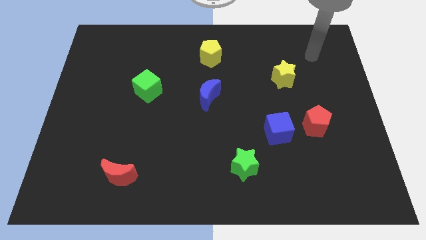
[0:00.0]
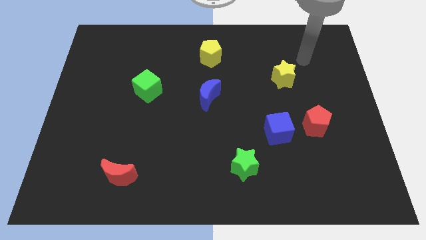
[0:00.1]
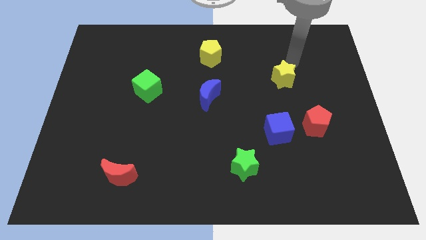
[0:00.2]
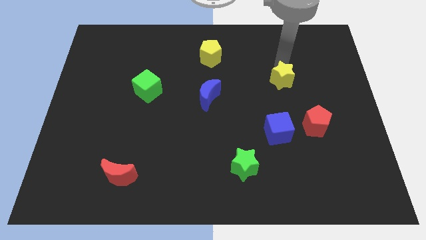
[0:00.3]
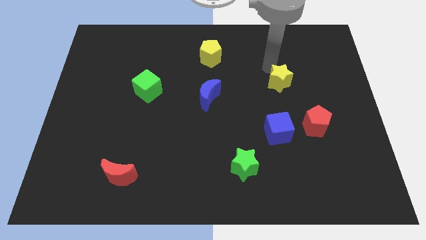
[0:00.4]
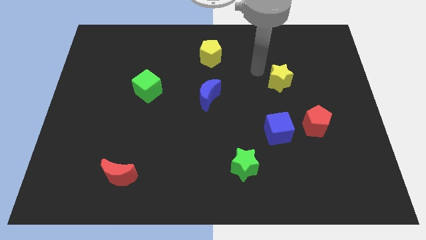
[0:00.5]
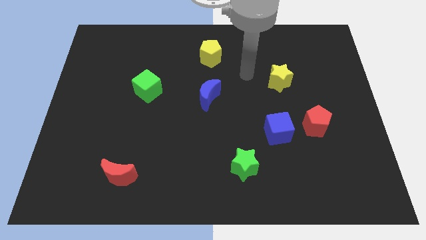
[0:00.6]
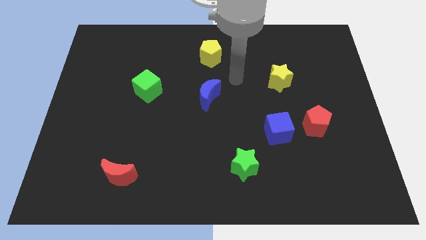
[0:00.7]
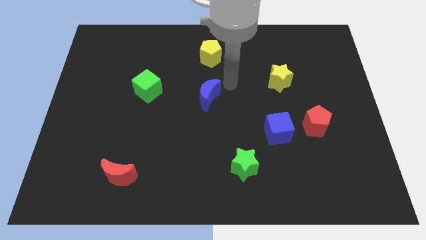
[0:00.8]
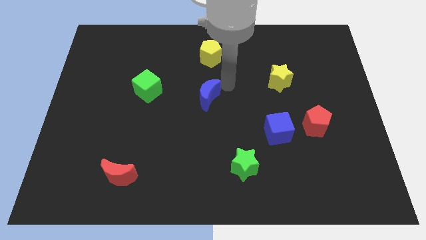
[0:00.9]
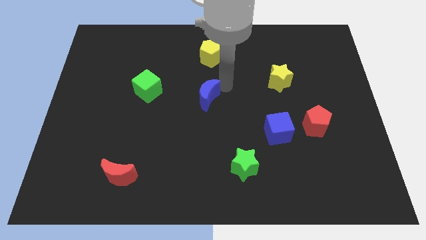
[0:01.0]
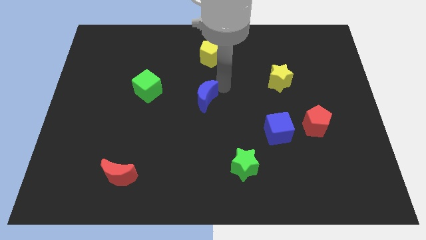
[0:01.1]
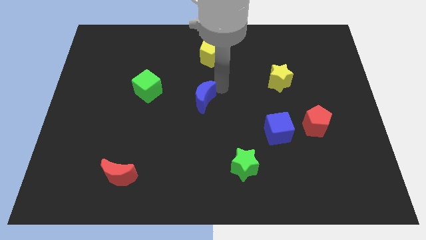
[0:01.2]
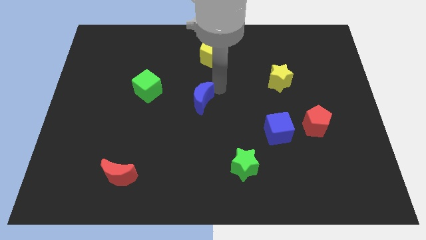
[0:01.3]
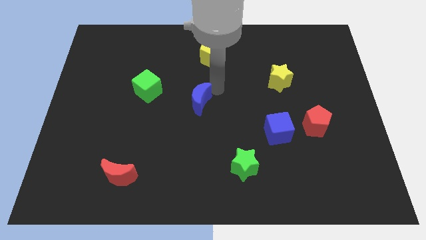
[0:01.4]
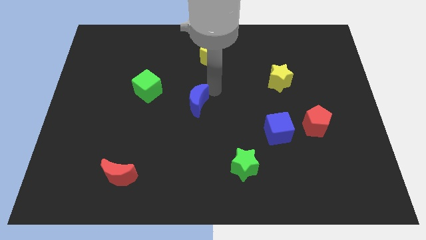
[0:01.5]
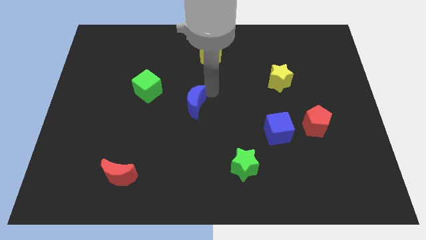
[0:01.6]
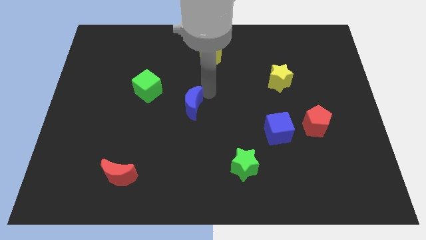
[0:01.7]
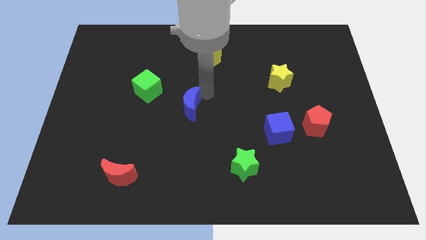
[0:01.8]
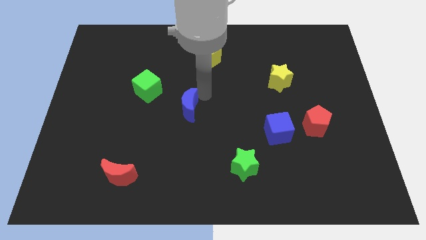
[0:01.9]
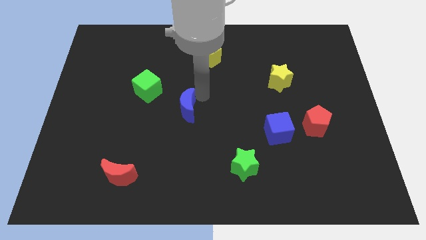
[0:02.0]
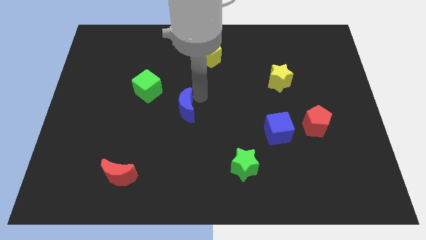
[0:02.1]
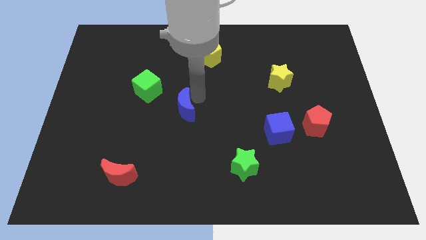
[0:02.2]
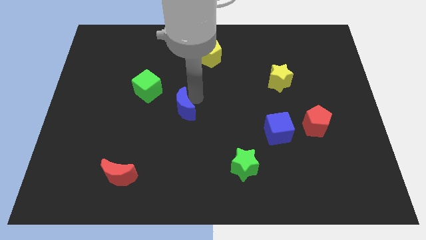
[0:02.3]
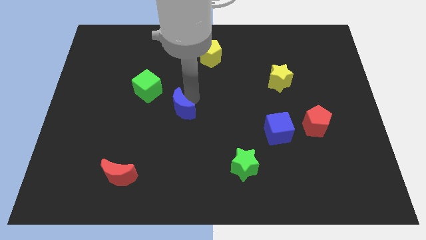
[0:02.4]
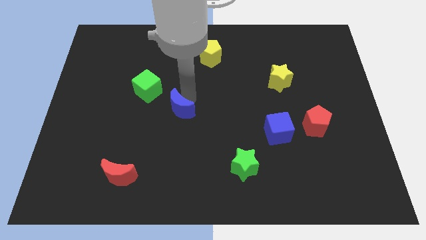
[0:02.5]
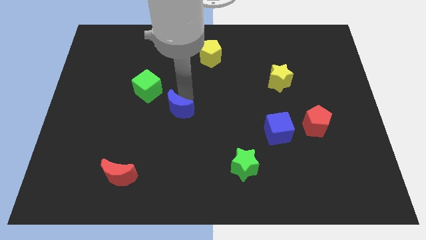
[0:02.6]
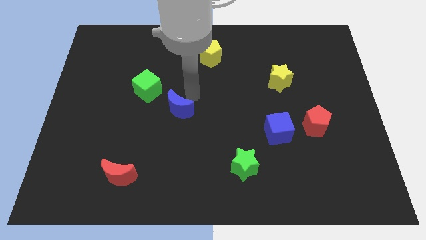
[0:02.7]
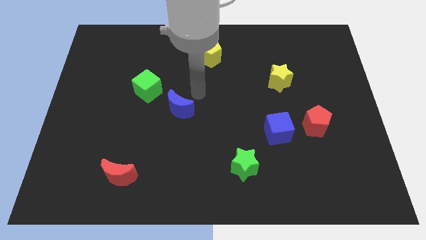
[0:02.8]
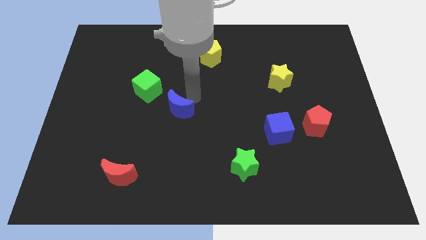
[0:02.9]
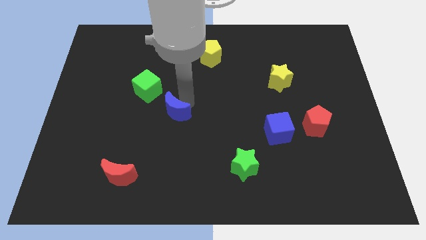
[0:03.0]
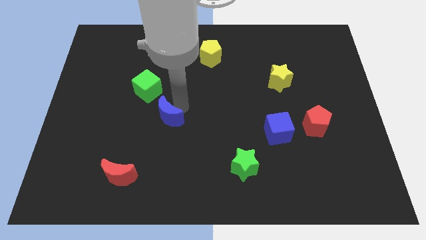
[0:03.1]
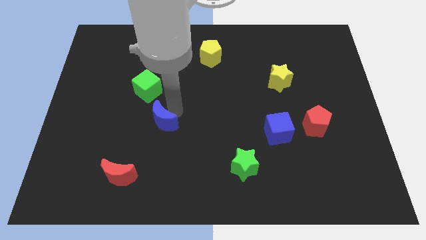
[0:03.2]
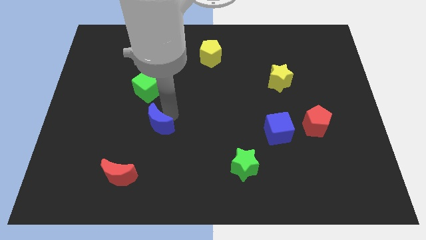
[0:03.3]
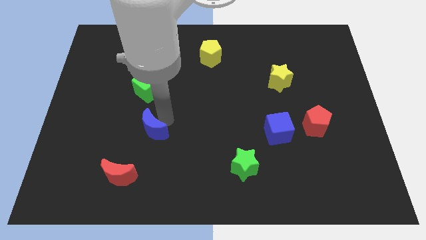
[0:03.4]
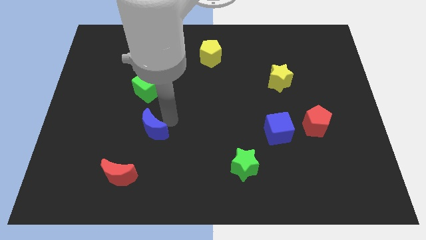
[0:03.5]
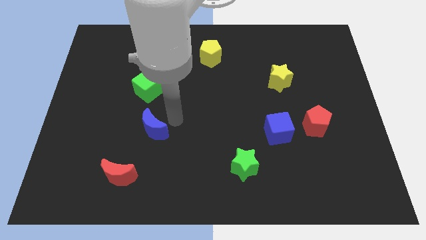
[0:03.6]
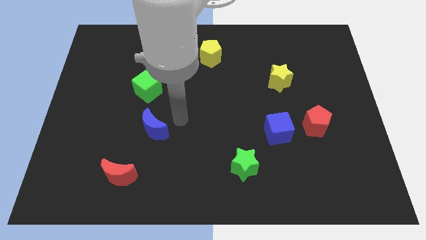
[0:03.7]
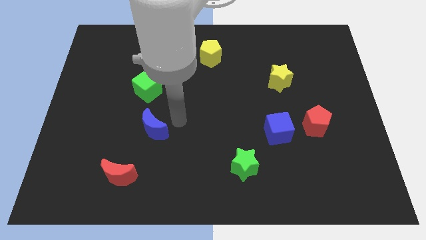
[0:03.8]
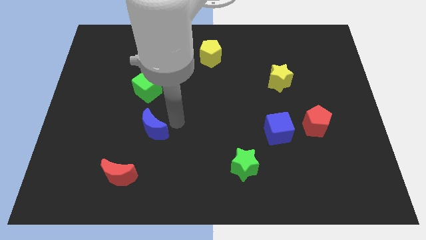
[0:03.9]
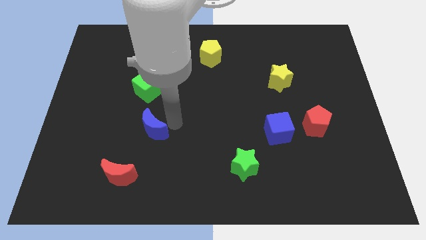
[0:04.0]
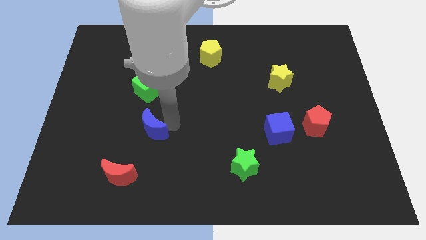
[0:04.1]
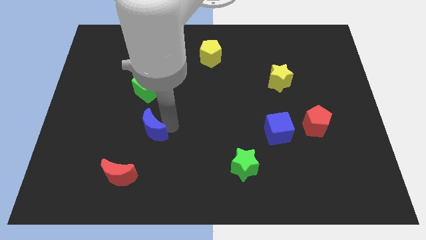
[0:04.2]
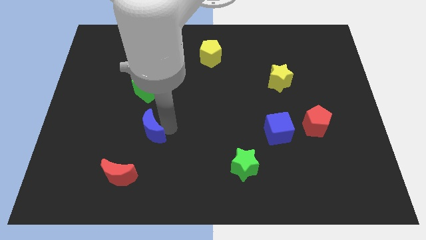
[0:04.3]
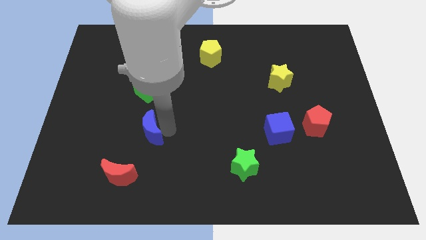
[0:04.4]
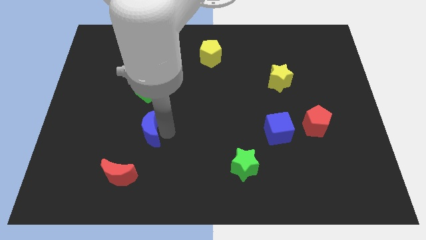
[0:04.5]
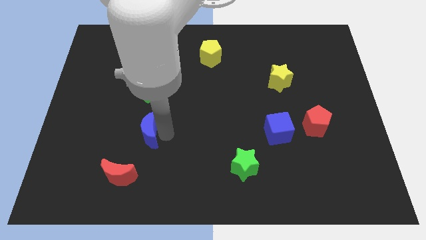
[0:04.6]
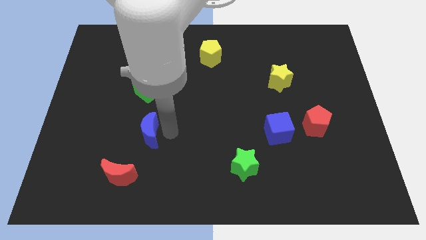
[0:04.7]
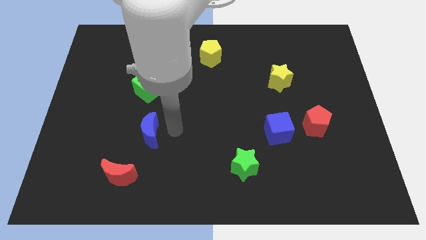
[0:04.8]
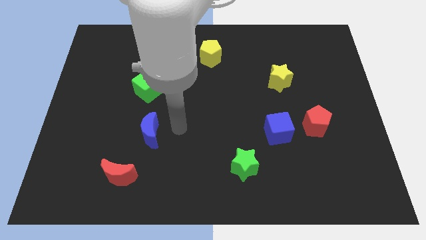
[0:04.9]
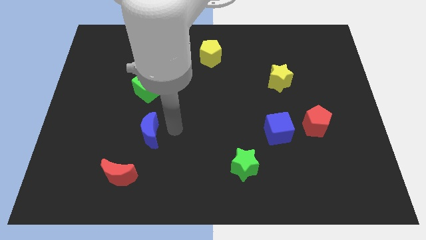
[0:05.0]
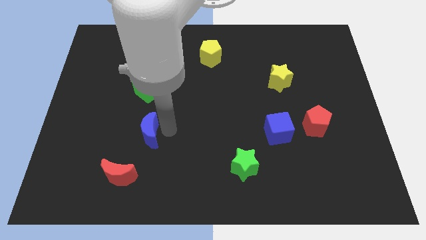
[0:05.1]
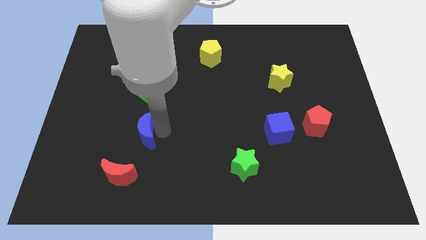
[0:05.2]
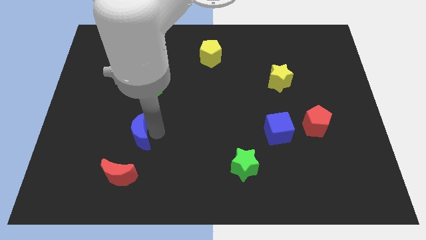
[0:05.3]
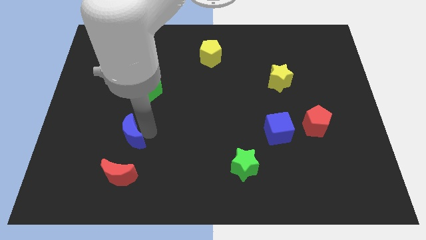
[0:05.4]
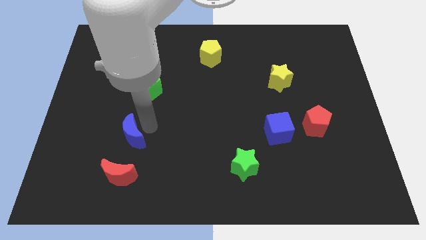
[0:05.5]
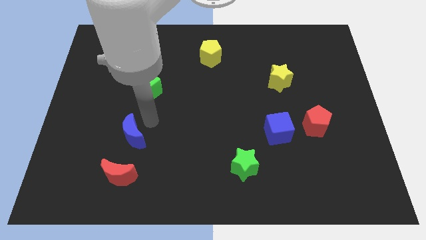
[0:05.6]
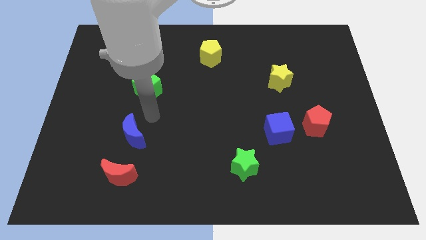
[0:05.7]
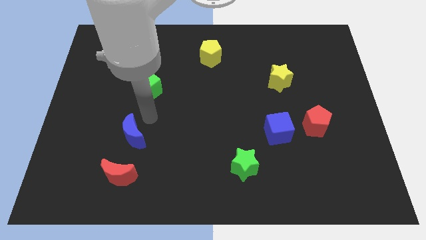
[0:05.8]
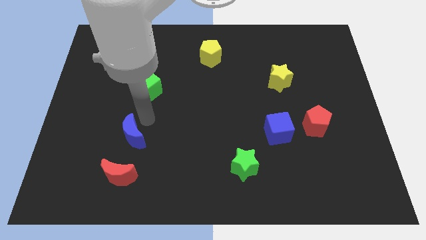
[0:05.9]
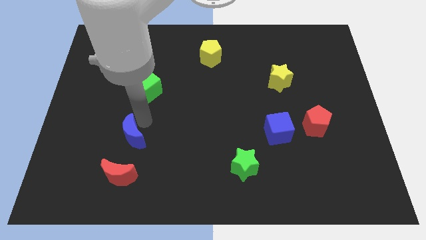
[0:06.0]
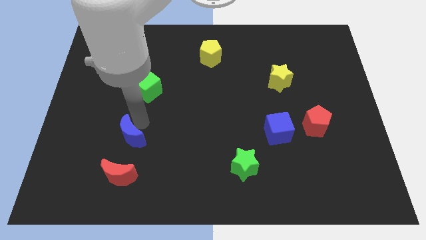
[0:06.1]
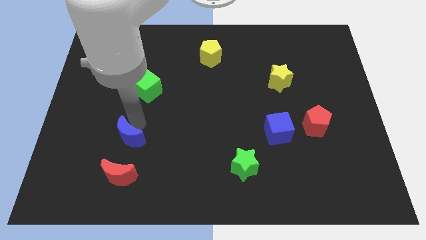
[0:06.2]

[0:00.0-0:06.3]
move the blue moon down and then to the left

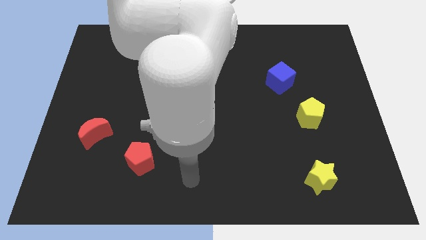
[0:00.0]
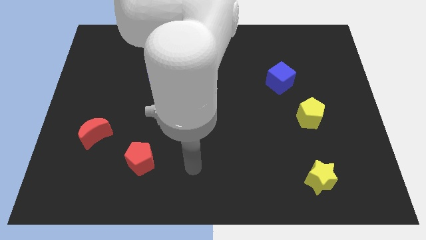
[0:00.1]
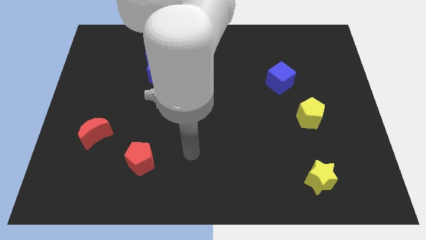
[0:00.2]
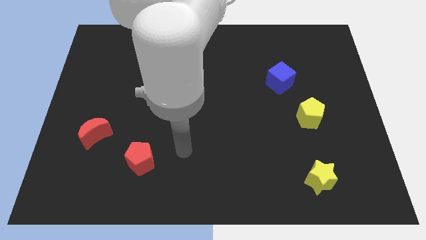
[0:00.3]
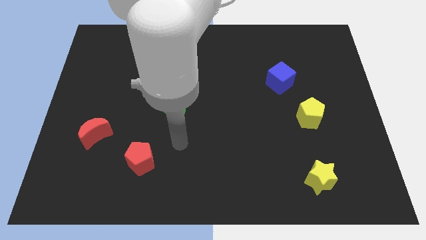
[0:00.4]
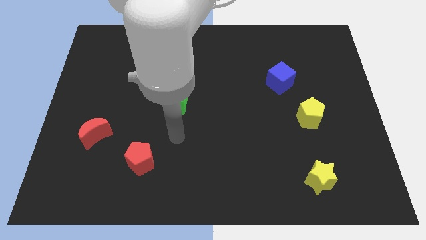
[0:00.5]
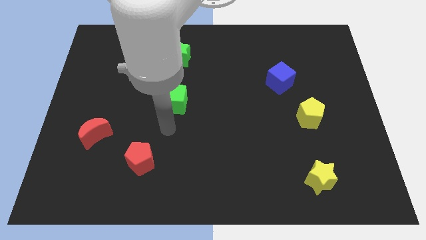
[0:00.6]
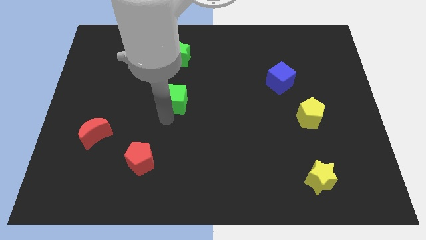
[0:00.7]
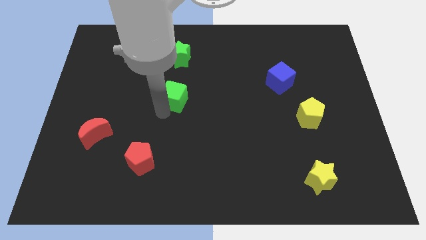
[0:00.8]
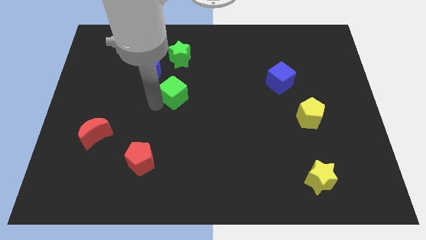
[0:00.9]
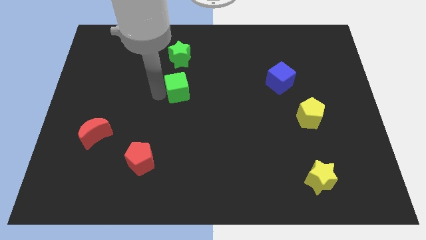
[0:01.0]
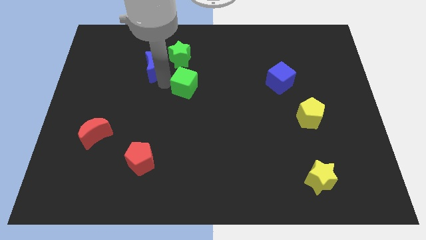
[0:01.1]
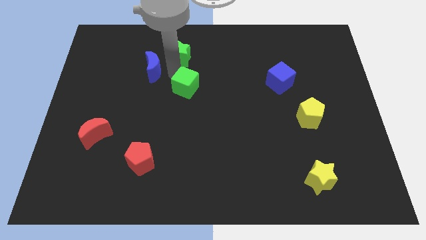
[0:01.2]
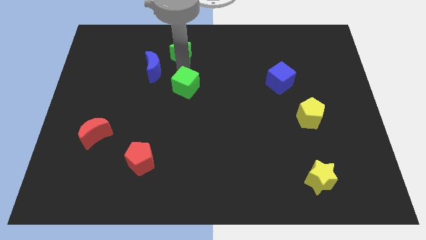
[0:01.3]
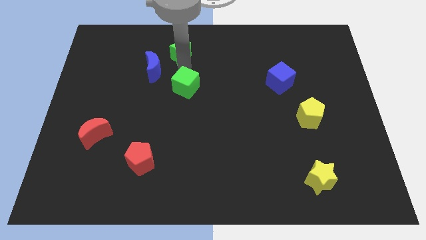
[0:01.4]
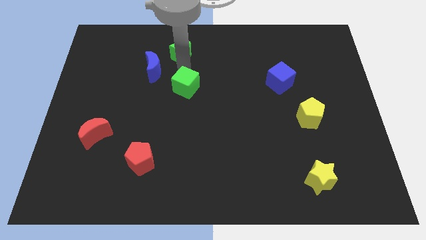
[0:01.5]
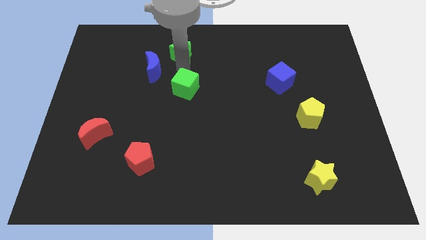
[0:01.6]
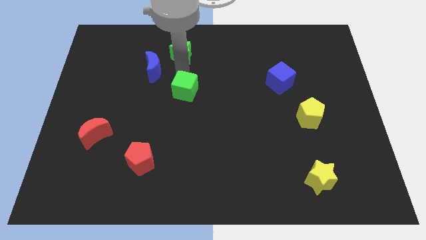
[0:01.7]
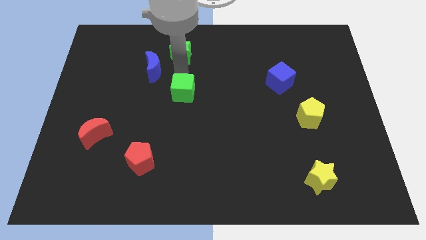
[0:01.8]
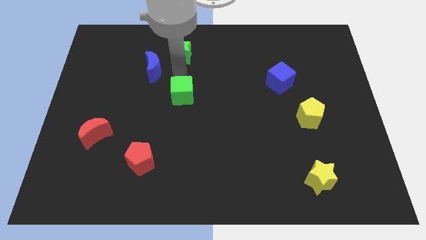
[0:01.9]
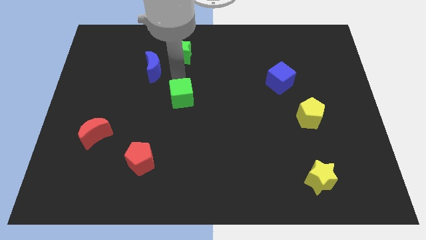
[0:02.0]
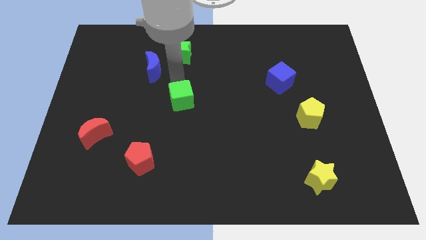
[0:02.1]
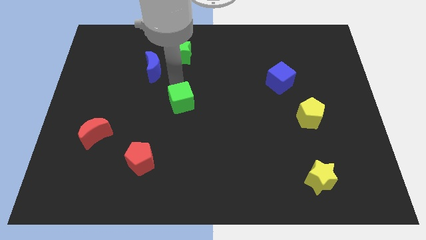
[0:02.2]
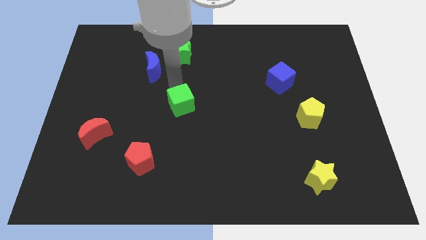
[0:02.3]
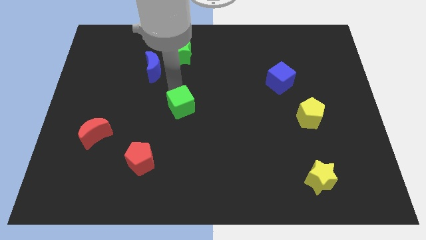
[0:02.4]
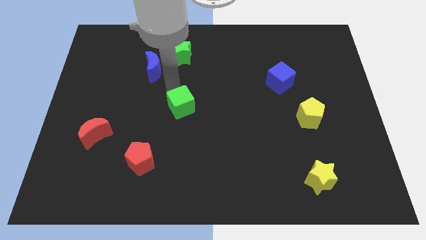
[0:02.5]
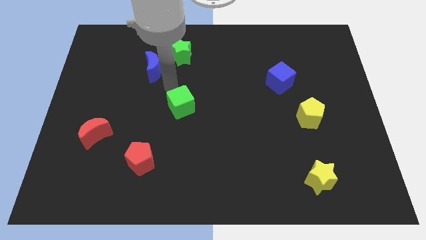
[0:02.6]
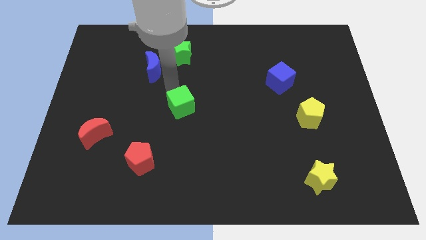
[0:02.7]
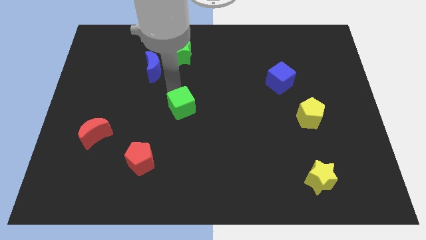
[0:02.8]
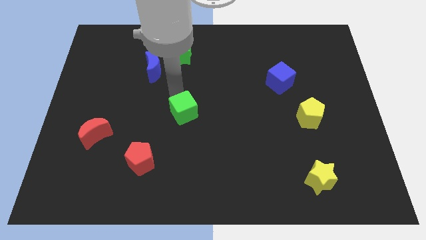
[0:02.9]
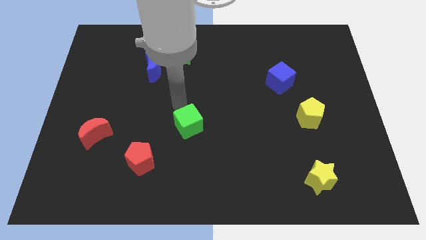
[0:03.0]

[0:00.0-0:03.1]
slightly push the green cube downwards and to the right diagonally
